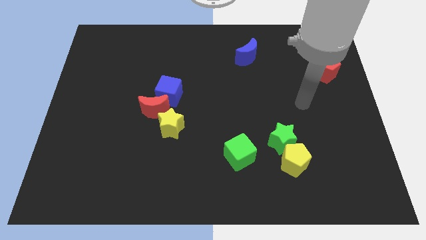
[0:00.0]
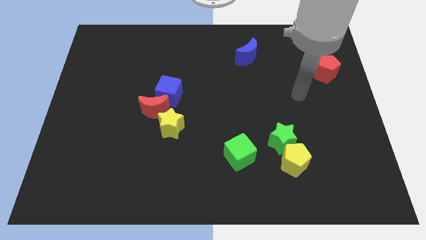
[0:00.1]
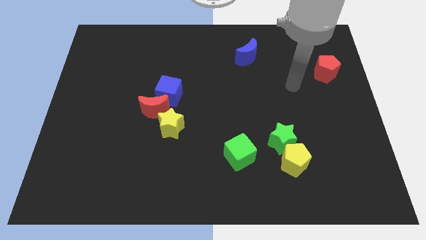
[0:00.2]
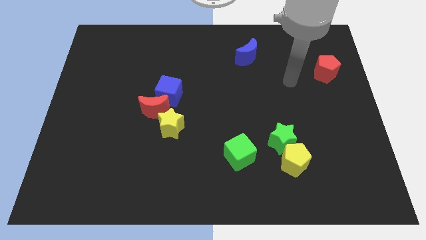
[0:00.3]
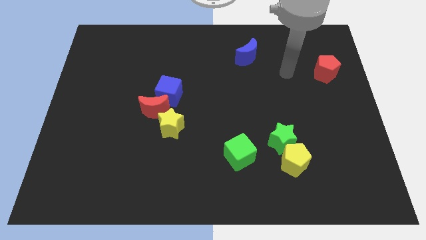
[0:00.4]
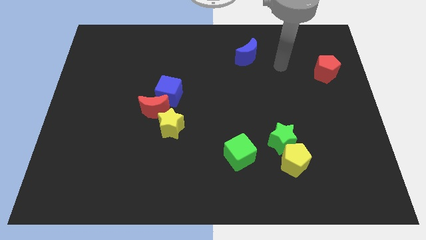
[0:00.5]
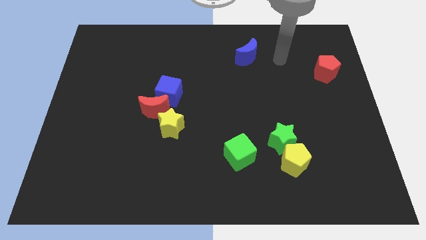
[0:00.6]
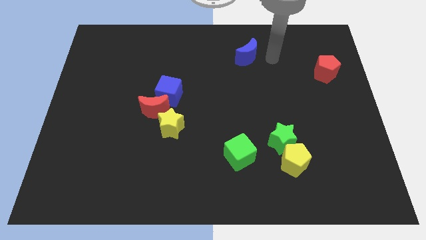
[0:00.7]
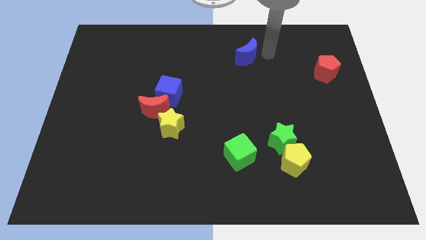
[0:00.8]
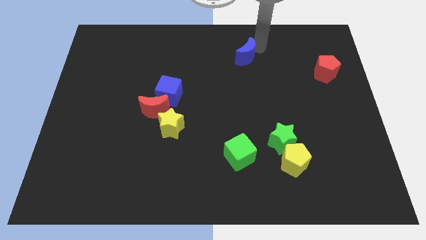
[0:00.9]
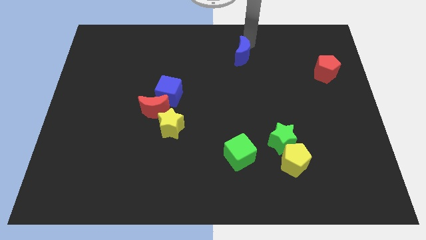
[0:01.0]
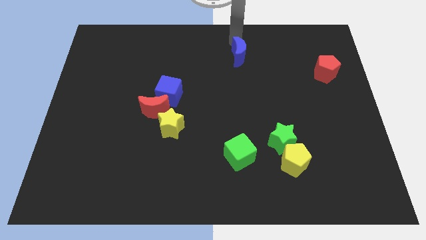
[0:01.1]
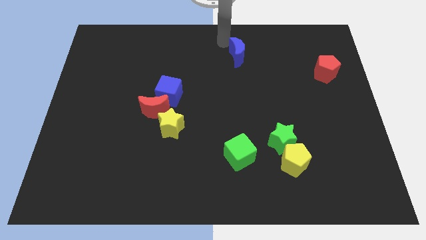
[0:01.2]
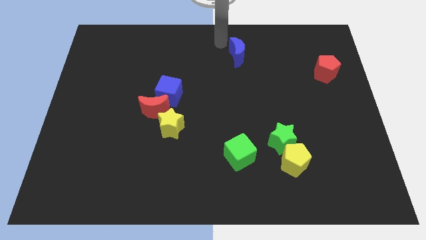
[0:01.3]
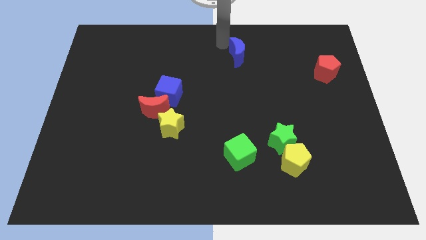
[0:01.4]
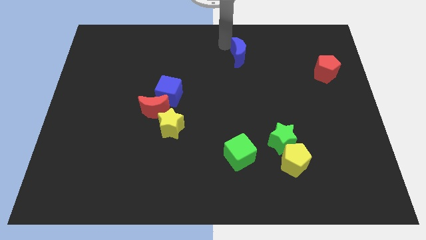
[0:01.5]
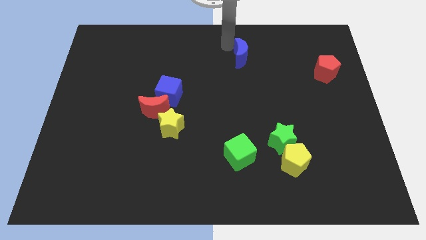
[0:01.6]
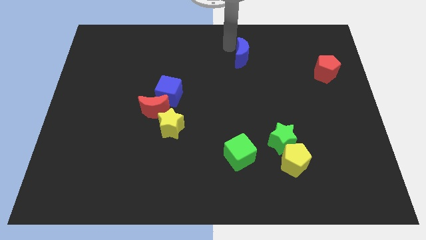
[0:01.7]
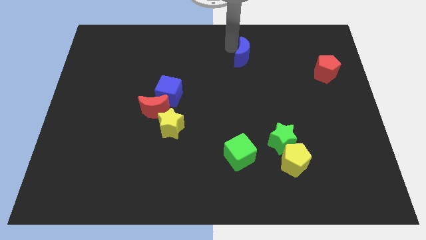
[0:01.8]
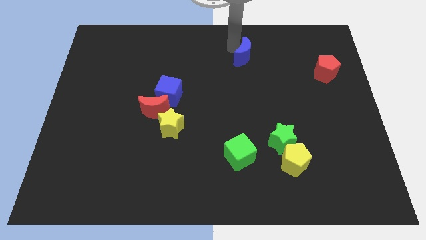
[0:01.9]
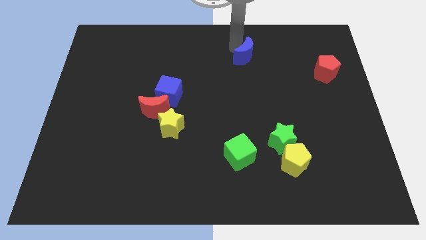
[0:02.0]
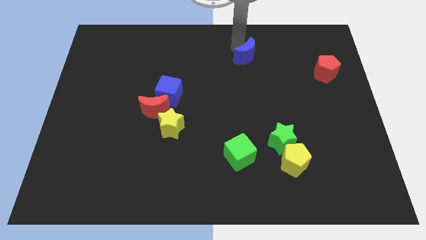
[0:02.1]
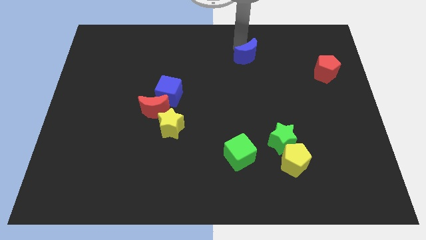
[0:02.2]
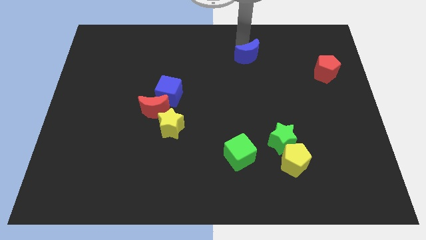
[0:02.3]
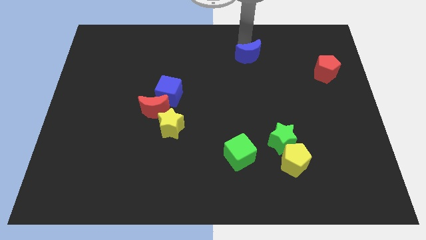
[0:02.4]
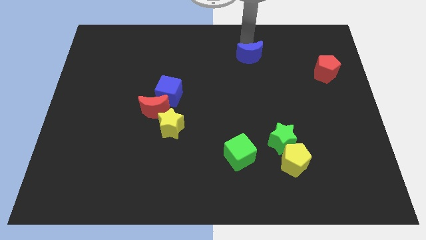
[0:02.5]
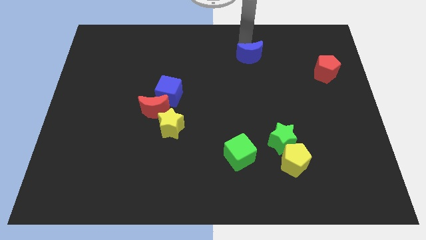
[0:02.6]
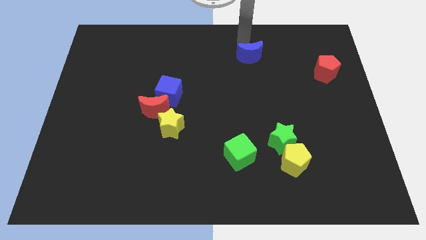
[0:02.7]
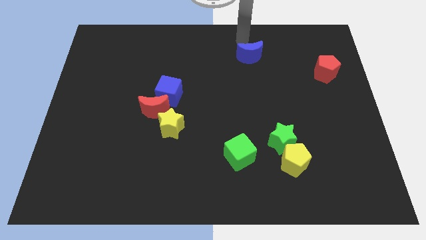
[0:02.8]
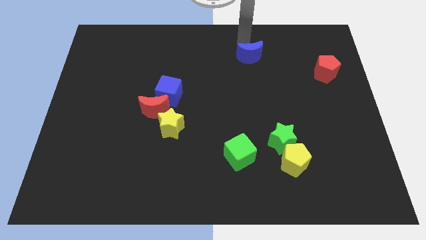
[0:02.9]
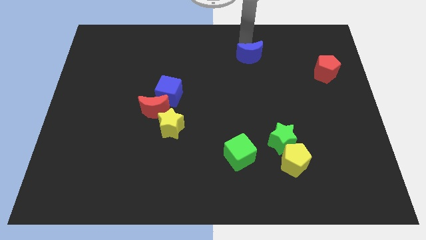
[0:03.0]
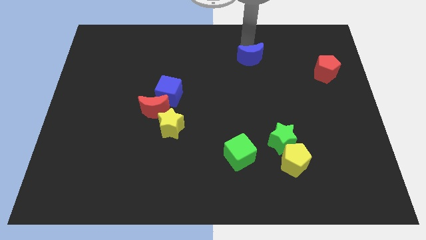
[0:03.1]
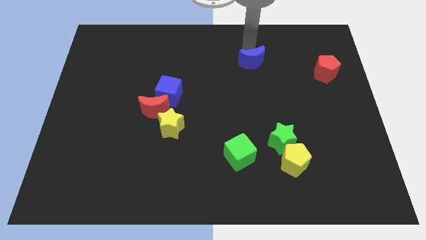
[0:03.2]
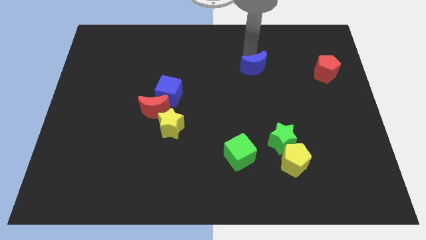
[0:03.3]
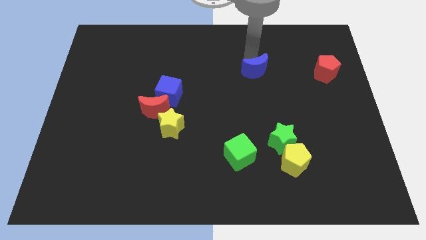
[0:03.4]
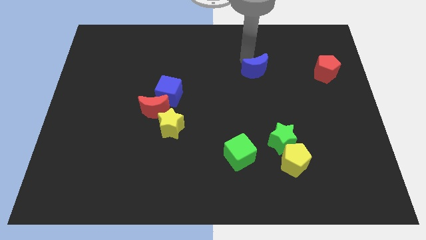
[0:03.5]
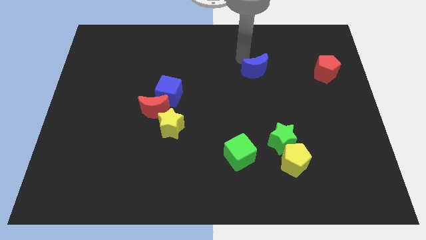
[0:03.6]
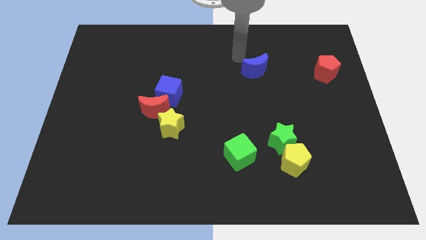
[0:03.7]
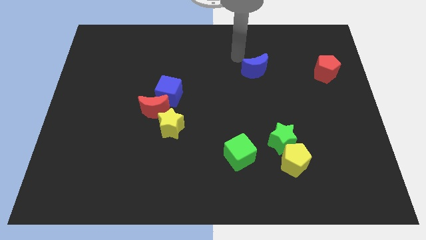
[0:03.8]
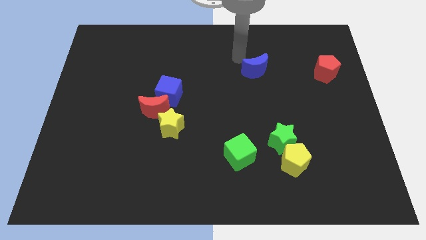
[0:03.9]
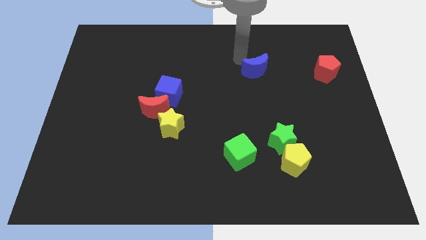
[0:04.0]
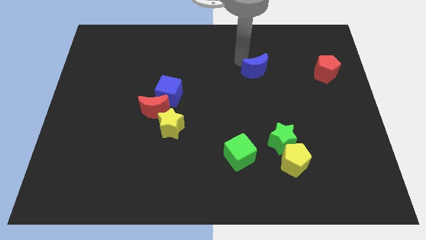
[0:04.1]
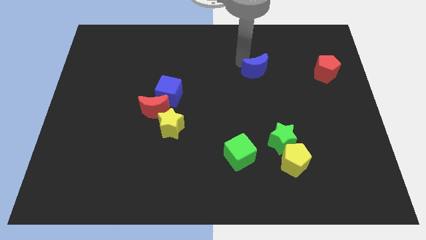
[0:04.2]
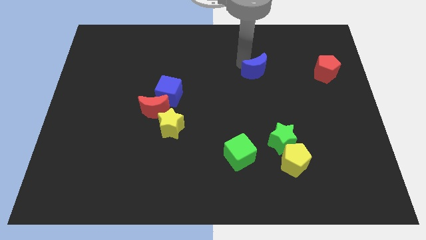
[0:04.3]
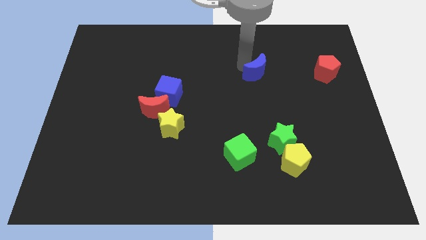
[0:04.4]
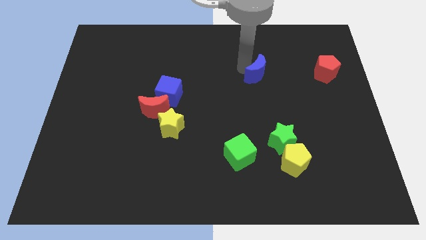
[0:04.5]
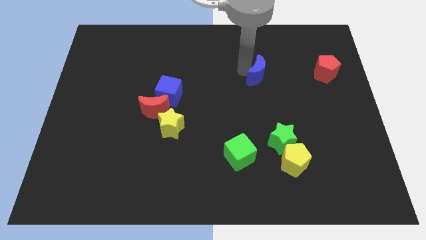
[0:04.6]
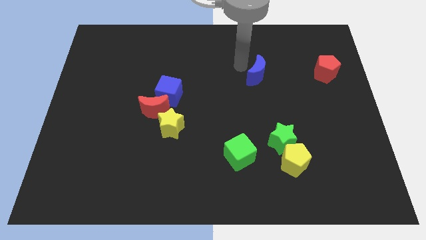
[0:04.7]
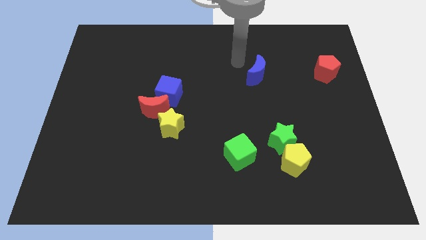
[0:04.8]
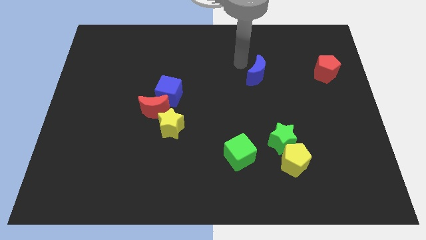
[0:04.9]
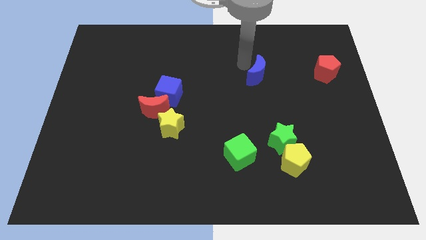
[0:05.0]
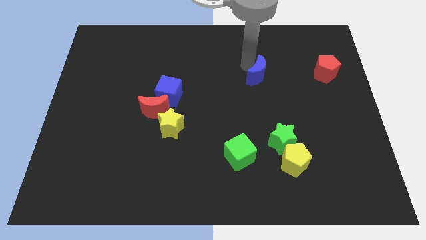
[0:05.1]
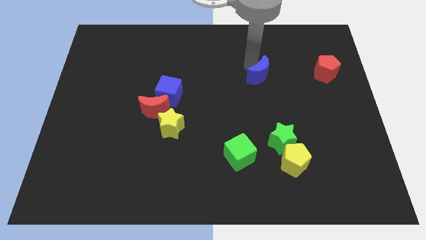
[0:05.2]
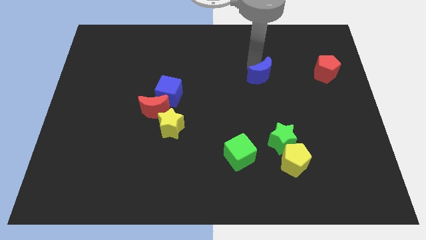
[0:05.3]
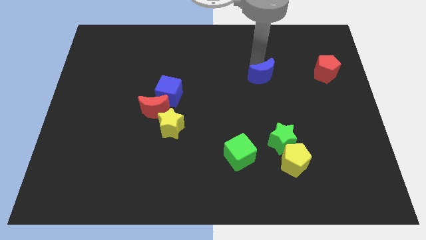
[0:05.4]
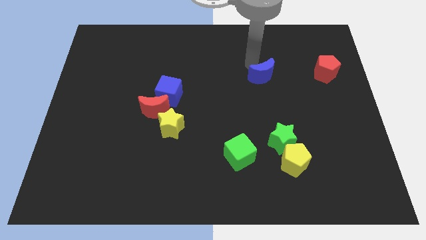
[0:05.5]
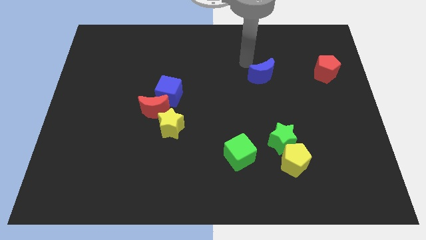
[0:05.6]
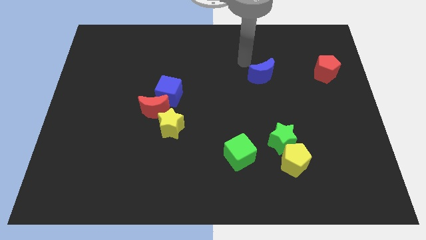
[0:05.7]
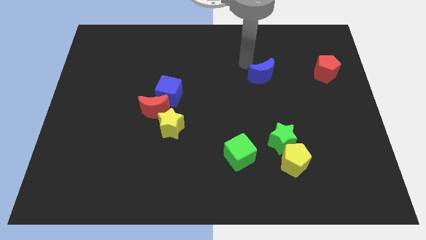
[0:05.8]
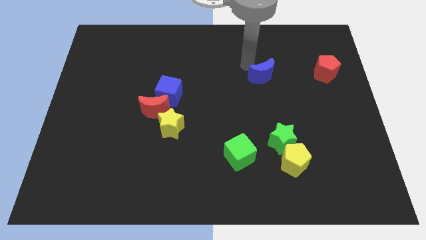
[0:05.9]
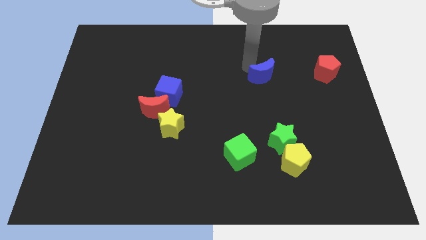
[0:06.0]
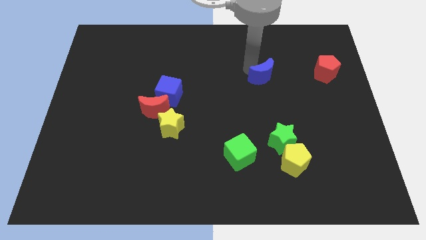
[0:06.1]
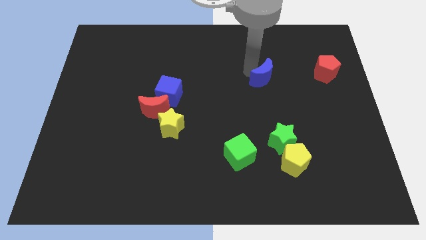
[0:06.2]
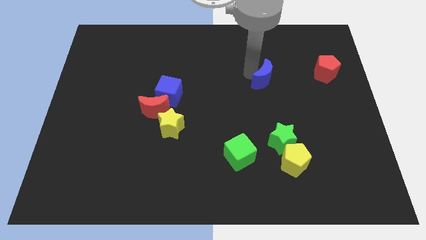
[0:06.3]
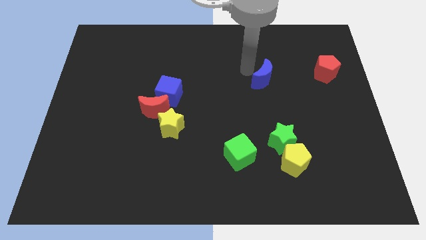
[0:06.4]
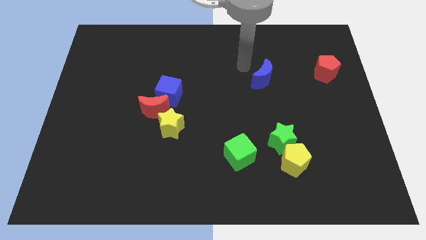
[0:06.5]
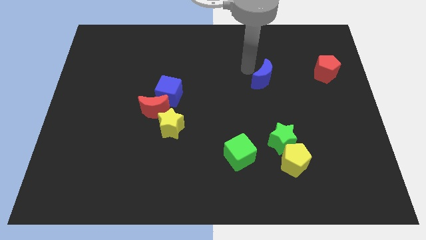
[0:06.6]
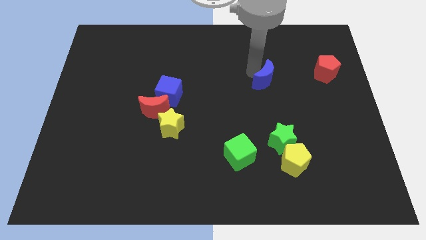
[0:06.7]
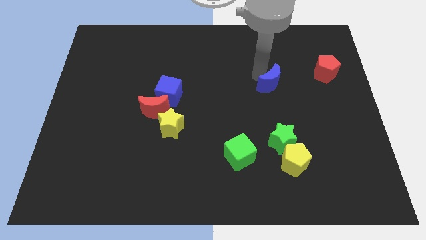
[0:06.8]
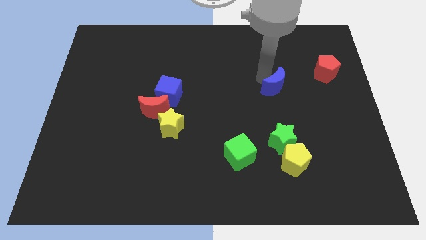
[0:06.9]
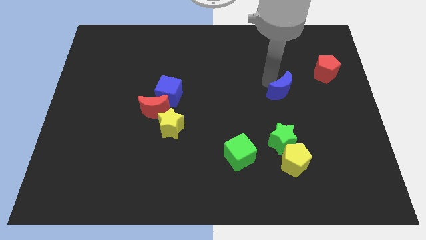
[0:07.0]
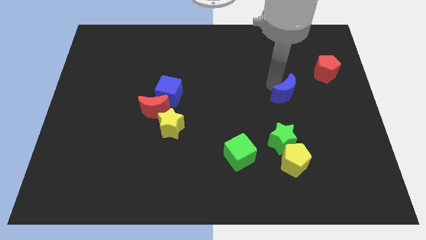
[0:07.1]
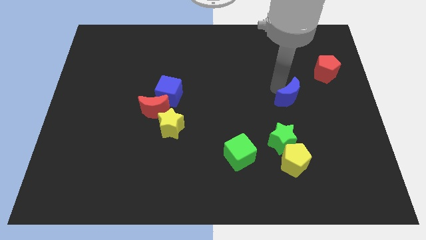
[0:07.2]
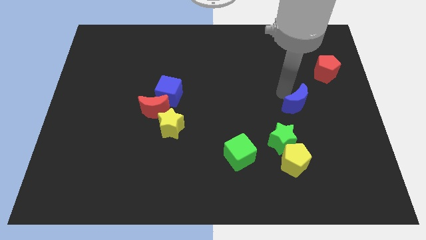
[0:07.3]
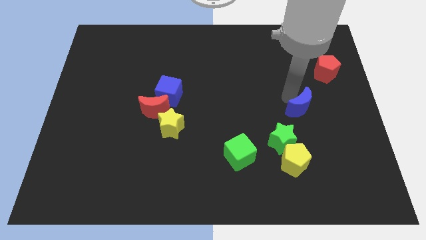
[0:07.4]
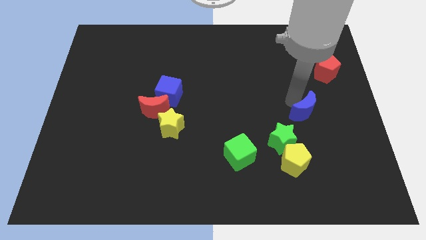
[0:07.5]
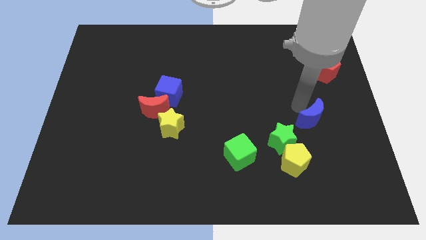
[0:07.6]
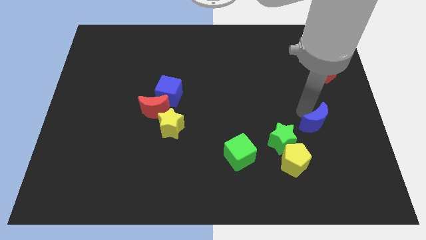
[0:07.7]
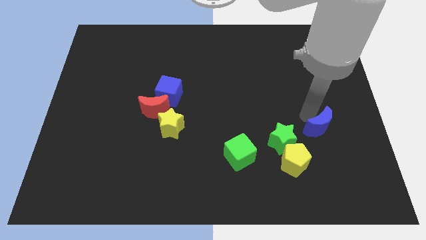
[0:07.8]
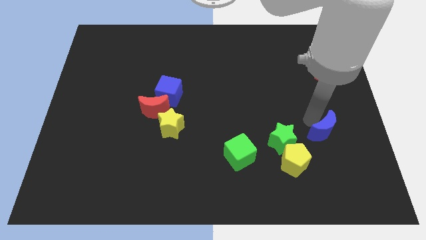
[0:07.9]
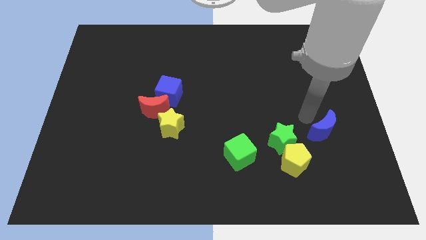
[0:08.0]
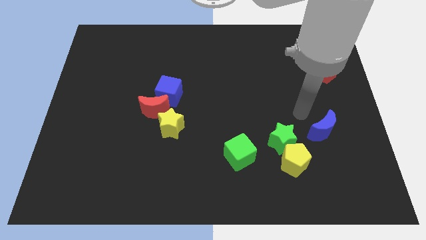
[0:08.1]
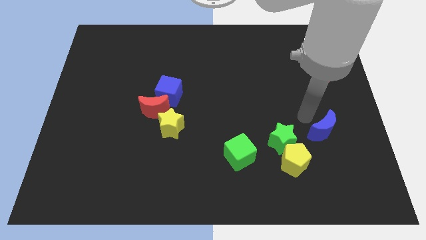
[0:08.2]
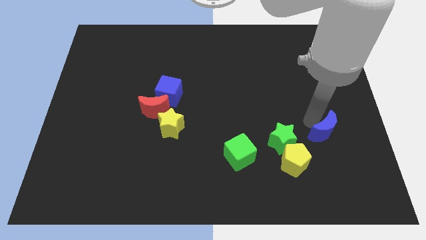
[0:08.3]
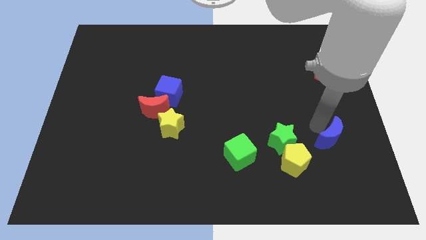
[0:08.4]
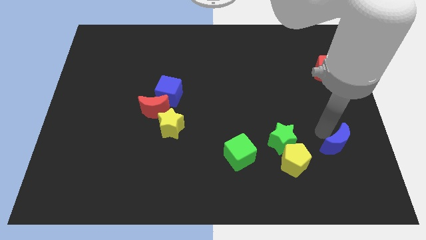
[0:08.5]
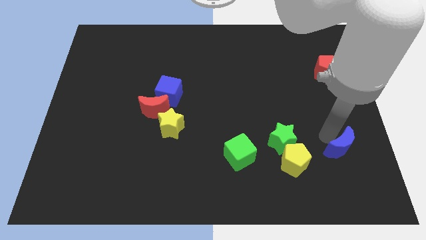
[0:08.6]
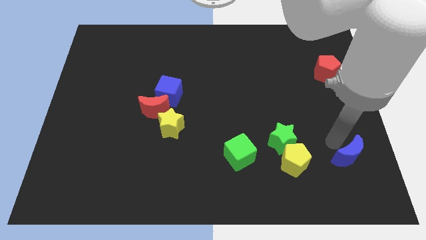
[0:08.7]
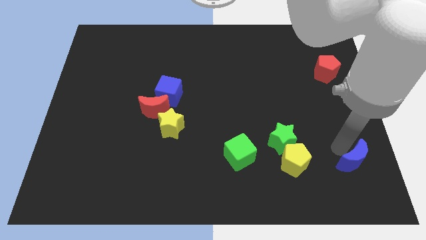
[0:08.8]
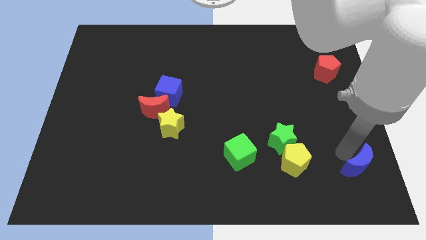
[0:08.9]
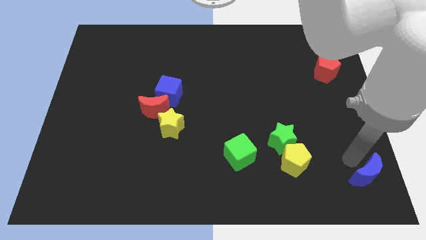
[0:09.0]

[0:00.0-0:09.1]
push the blue moon to the bottom right of the board
